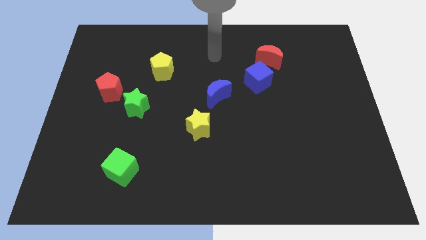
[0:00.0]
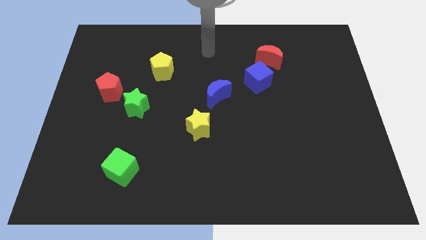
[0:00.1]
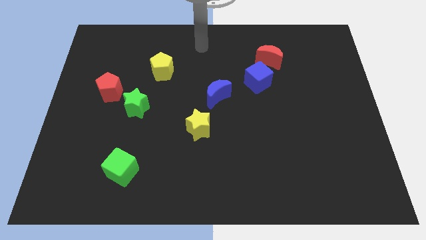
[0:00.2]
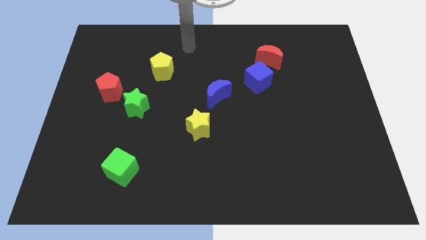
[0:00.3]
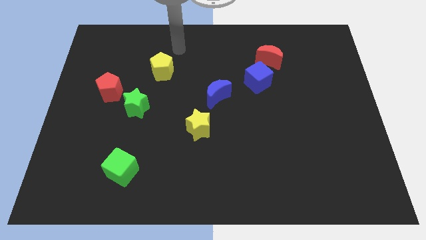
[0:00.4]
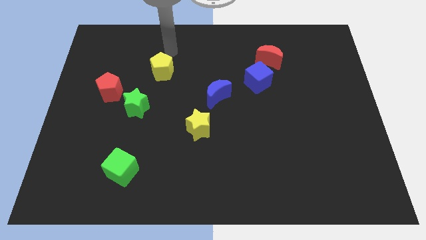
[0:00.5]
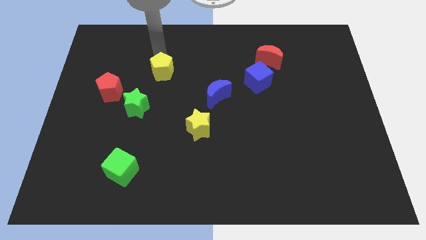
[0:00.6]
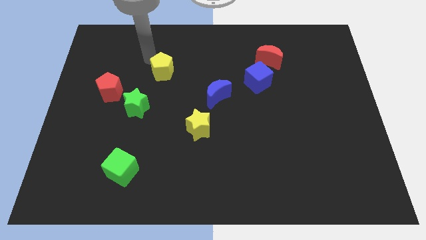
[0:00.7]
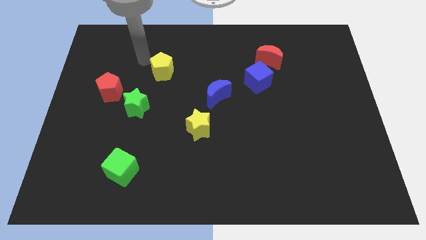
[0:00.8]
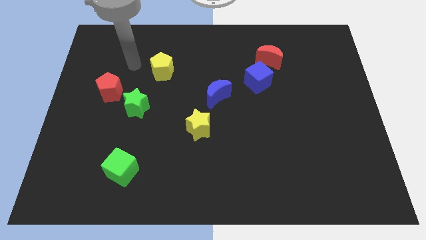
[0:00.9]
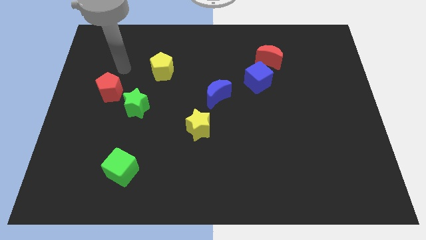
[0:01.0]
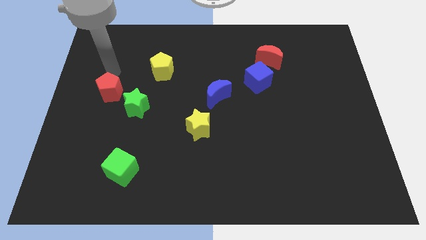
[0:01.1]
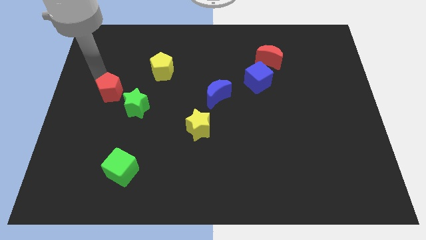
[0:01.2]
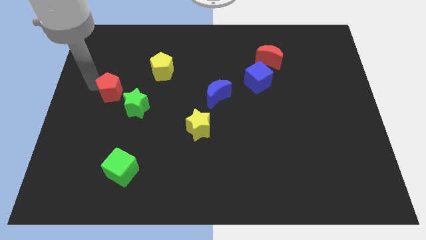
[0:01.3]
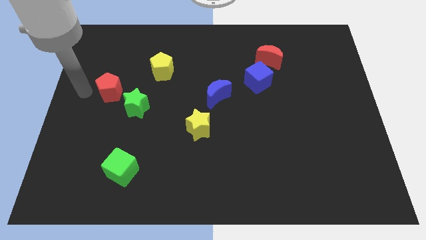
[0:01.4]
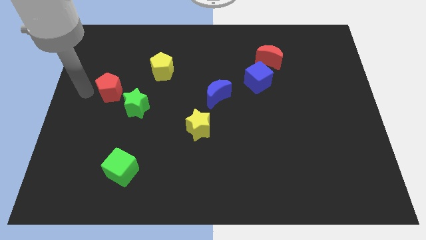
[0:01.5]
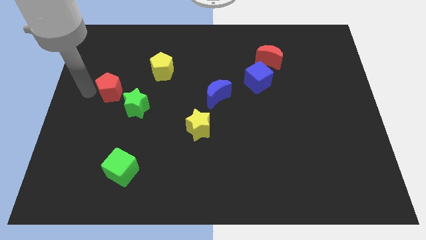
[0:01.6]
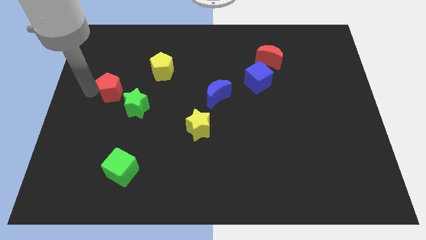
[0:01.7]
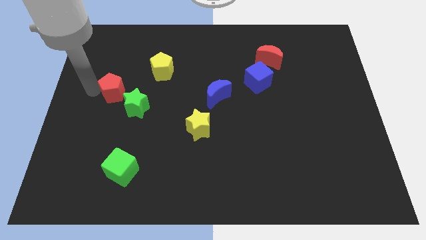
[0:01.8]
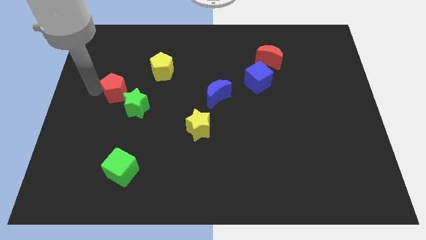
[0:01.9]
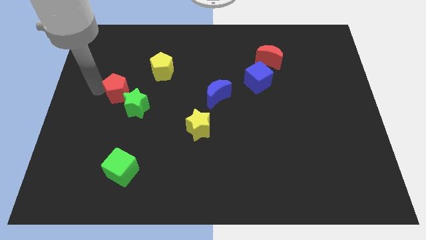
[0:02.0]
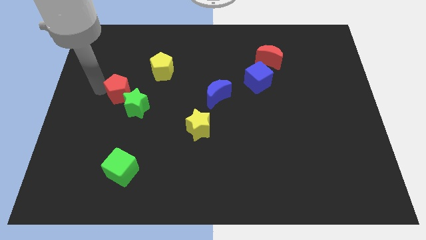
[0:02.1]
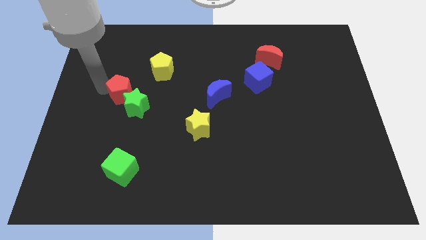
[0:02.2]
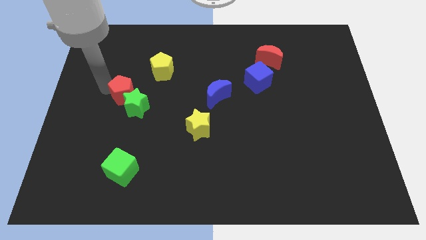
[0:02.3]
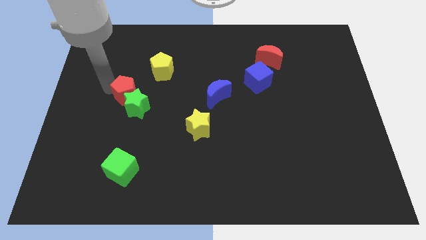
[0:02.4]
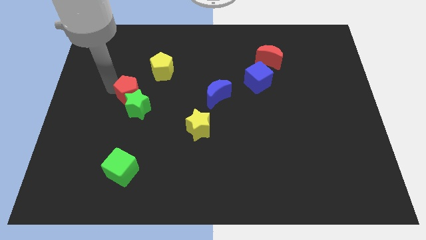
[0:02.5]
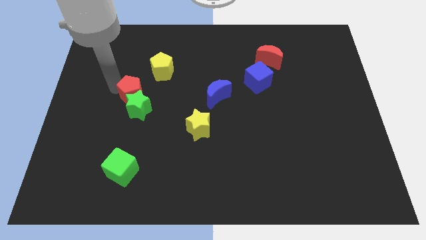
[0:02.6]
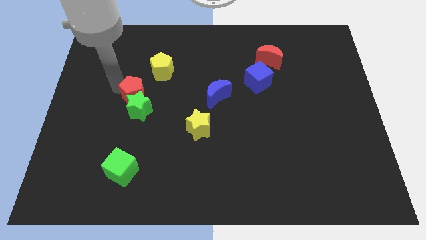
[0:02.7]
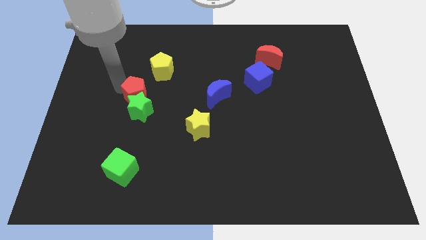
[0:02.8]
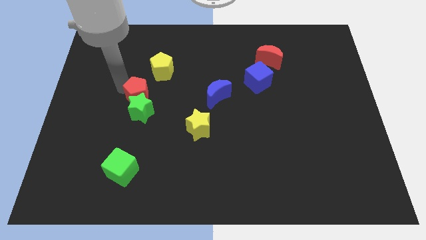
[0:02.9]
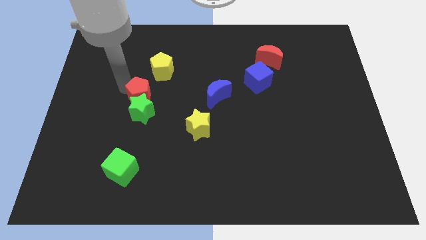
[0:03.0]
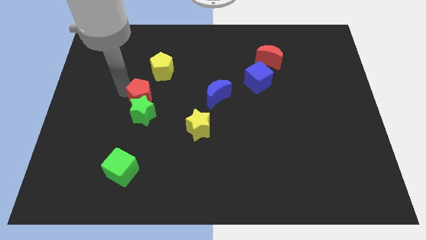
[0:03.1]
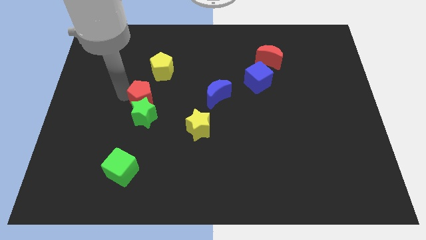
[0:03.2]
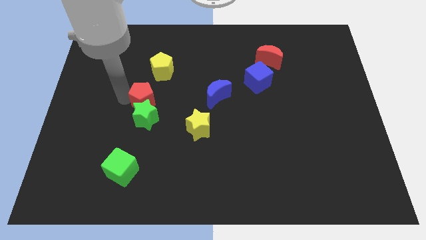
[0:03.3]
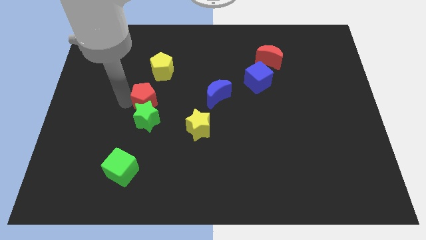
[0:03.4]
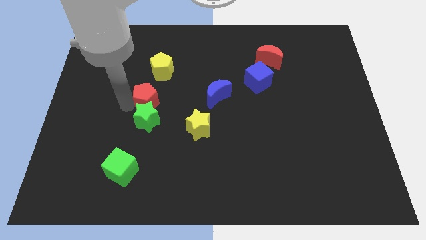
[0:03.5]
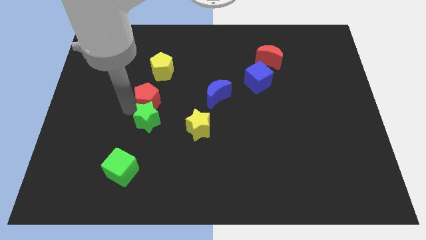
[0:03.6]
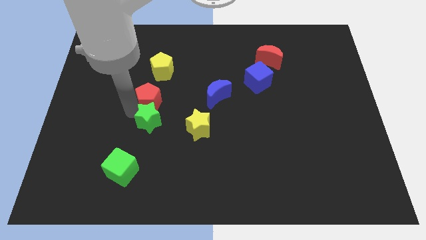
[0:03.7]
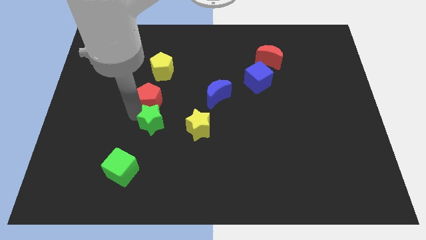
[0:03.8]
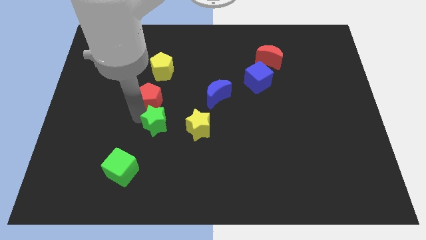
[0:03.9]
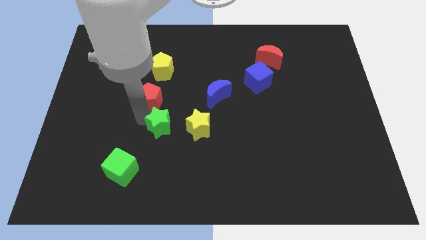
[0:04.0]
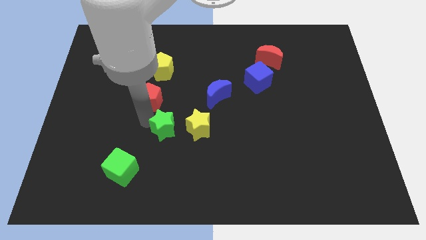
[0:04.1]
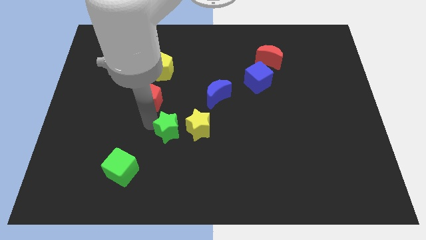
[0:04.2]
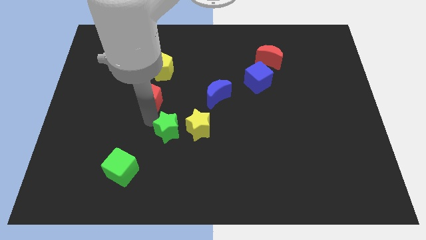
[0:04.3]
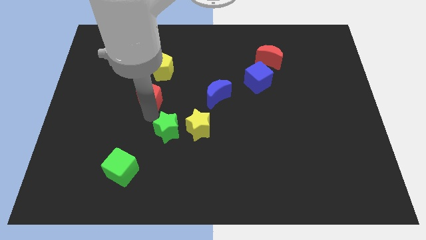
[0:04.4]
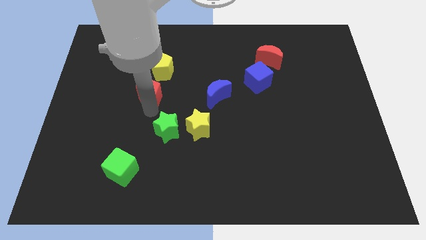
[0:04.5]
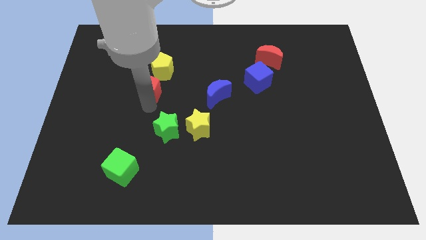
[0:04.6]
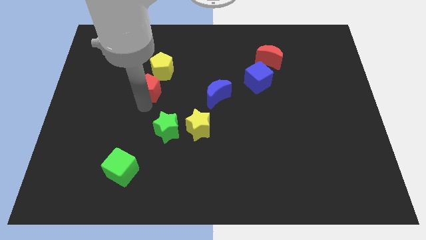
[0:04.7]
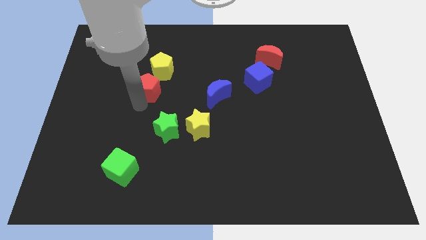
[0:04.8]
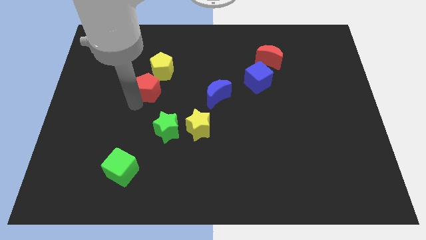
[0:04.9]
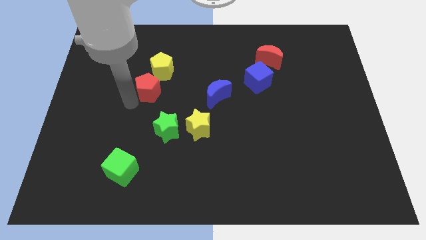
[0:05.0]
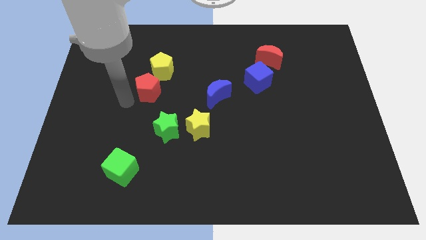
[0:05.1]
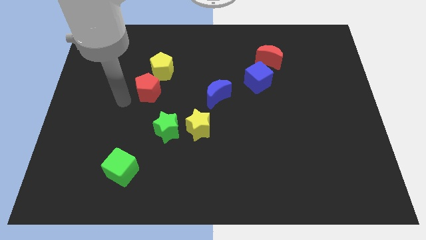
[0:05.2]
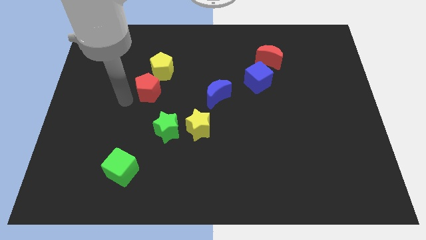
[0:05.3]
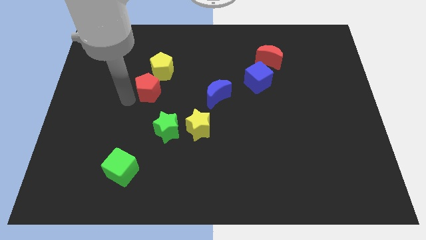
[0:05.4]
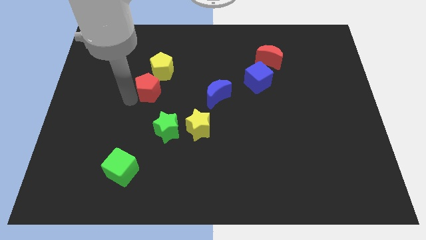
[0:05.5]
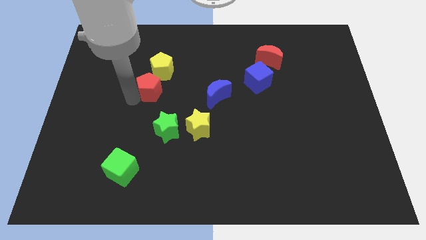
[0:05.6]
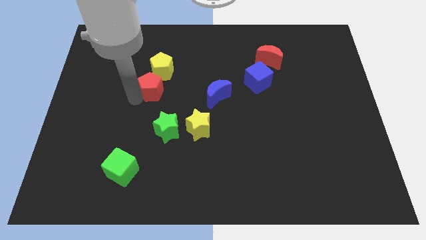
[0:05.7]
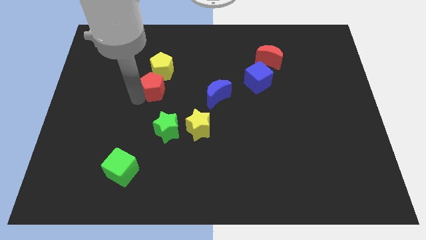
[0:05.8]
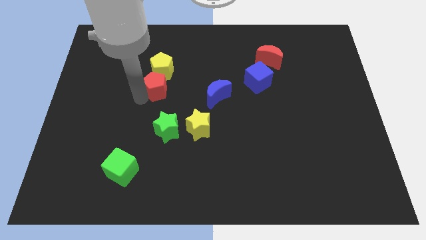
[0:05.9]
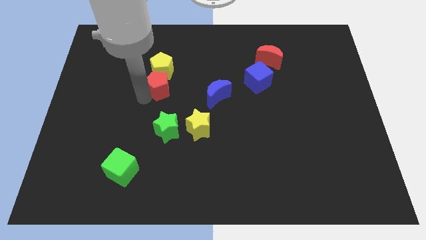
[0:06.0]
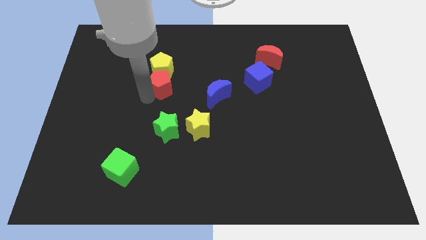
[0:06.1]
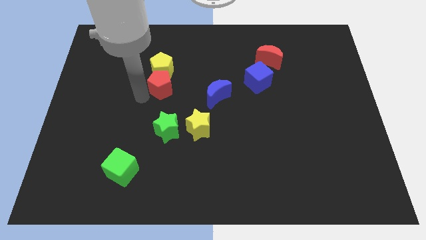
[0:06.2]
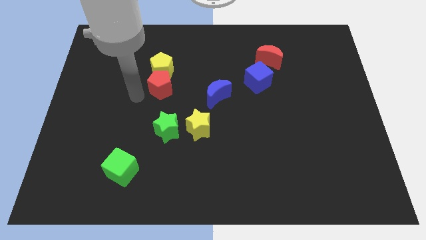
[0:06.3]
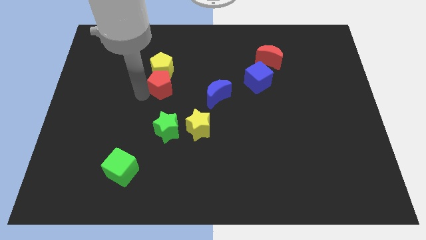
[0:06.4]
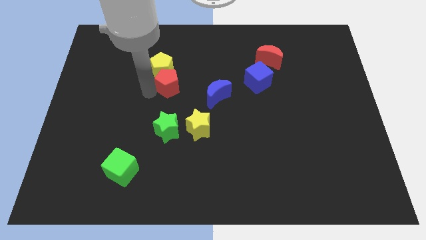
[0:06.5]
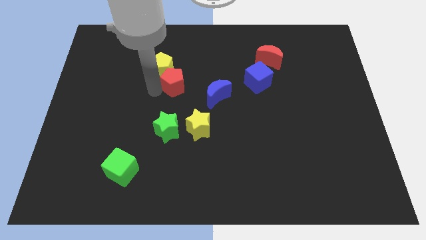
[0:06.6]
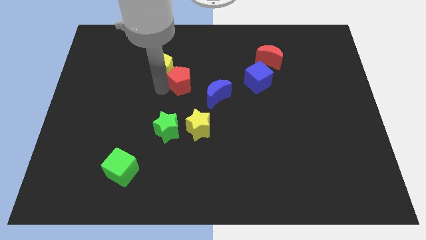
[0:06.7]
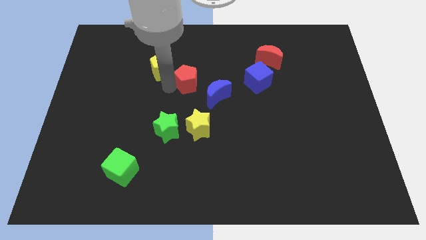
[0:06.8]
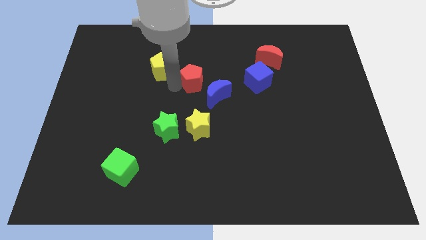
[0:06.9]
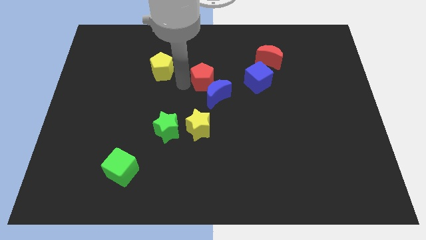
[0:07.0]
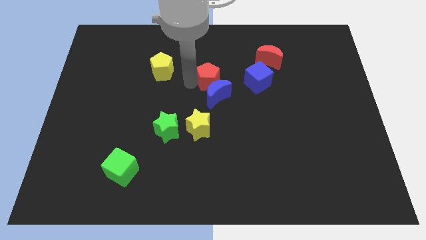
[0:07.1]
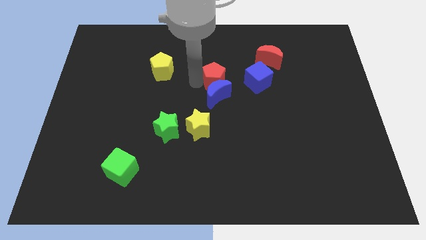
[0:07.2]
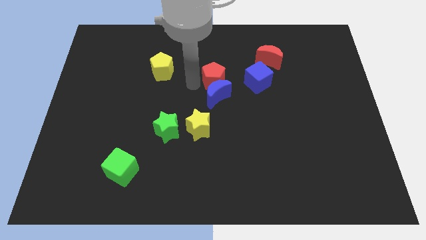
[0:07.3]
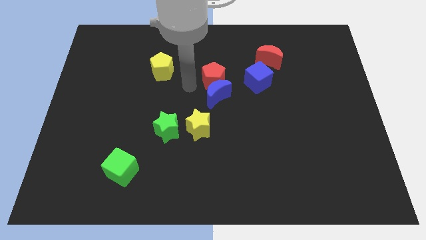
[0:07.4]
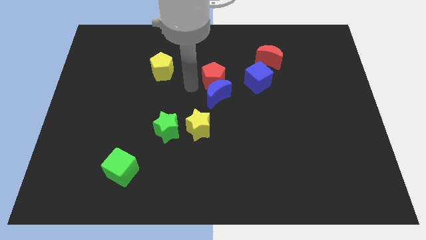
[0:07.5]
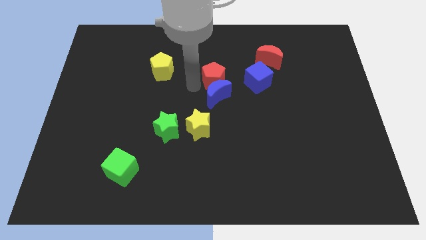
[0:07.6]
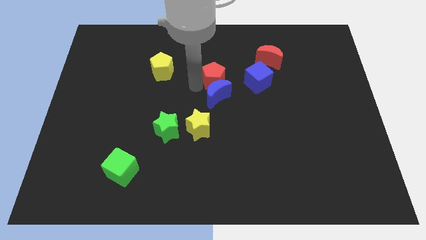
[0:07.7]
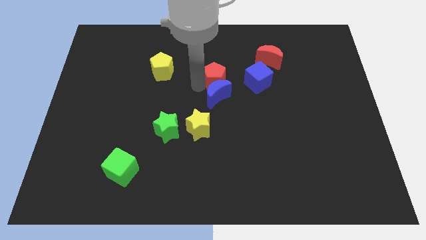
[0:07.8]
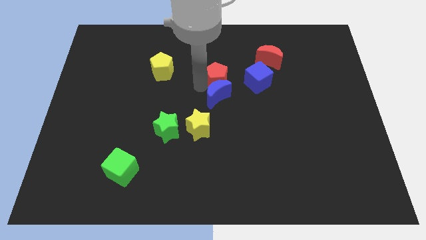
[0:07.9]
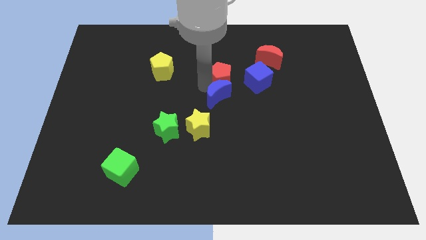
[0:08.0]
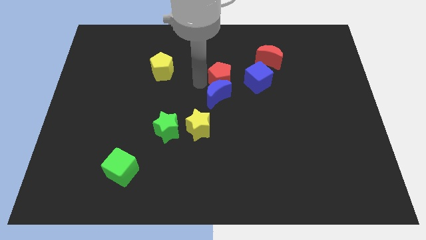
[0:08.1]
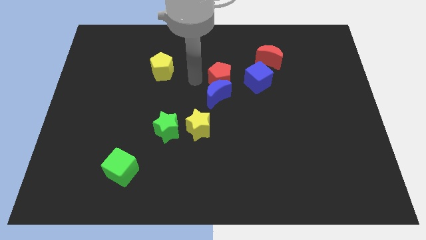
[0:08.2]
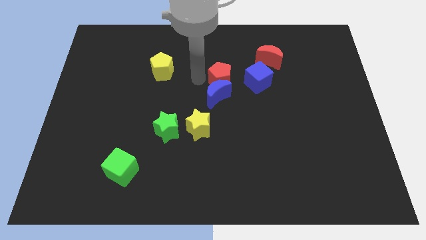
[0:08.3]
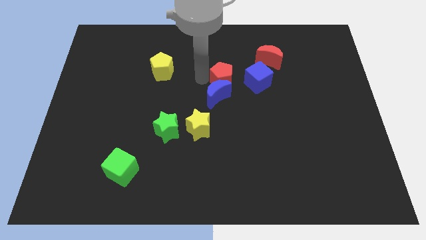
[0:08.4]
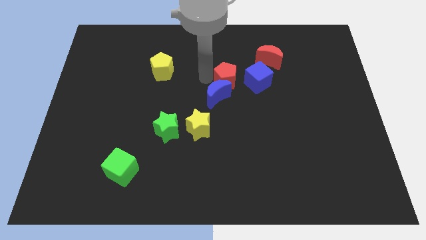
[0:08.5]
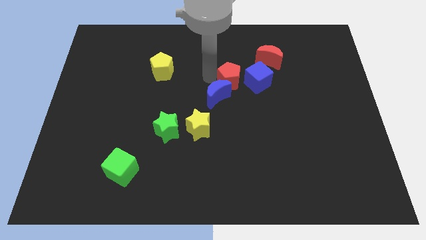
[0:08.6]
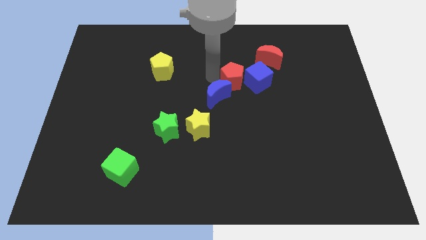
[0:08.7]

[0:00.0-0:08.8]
put the red pentagon close to the blue cube
